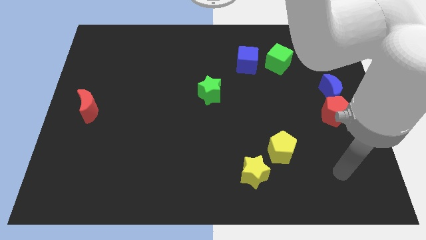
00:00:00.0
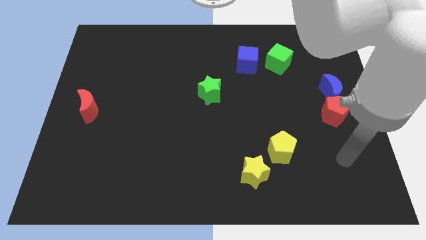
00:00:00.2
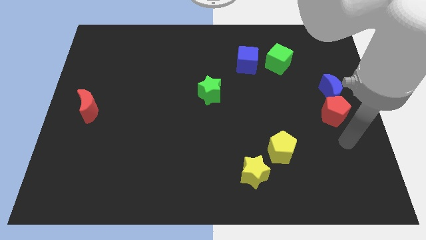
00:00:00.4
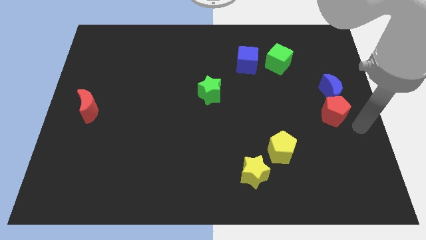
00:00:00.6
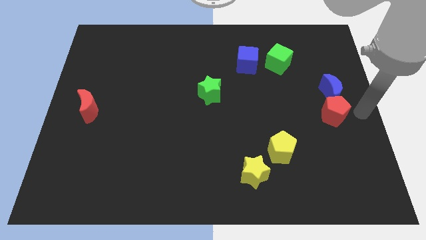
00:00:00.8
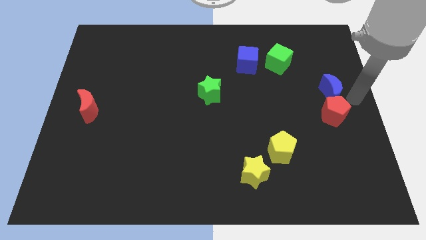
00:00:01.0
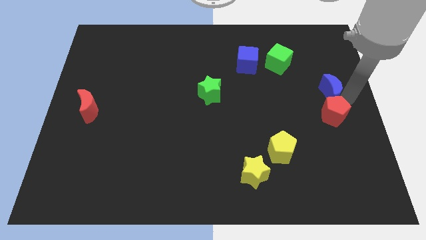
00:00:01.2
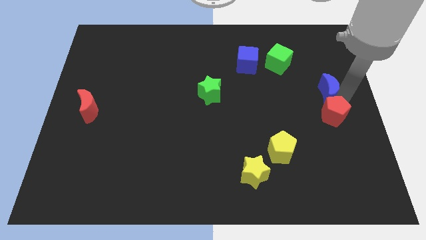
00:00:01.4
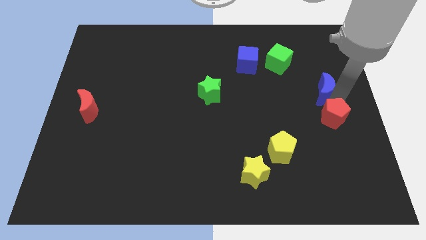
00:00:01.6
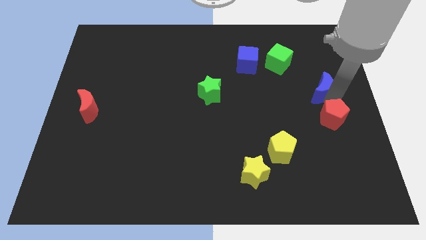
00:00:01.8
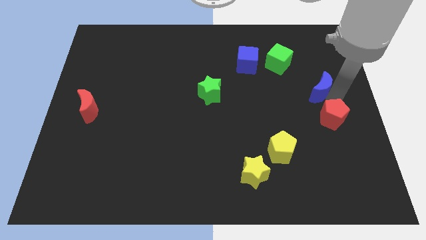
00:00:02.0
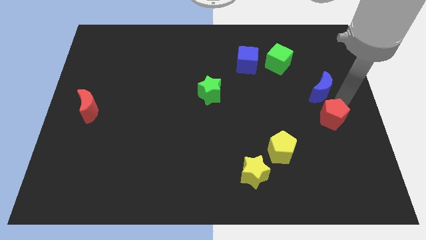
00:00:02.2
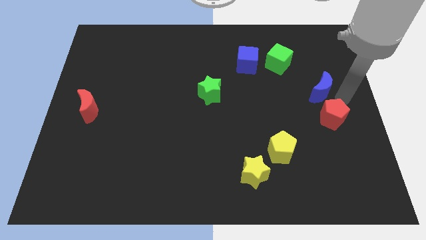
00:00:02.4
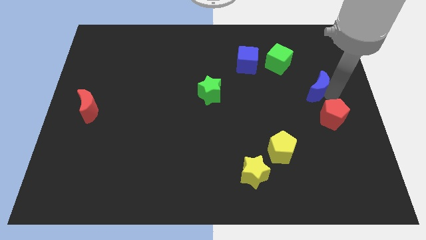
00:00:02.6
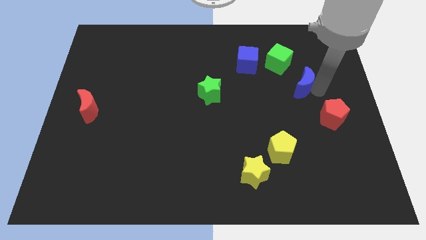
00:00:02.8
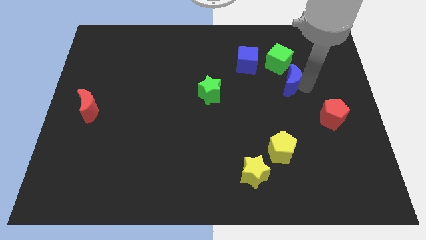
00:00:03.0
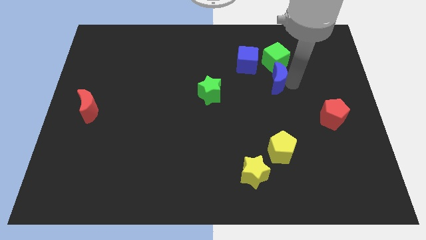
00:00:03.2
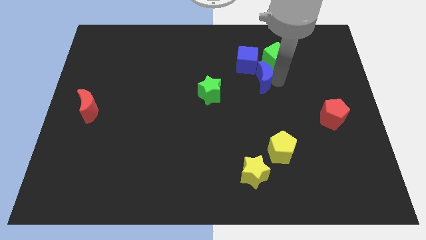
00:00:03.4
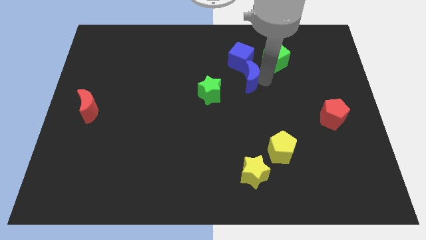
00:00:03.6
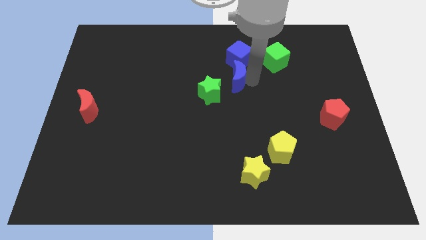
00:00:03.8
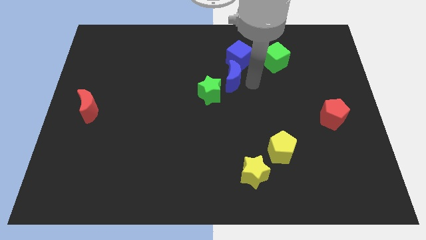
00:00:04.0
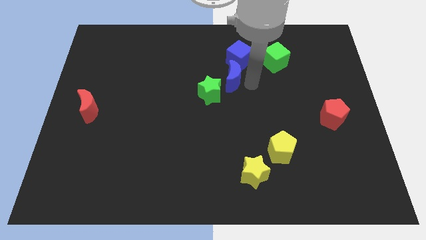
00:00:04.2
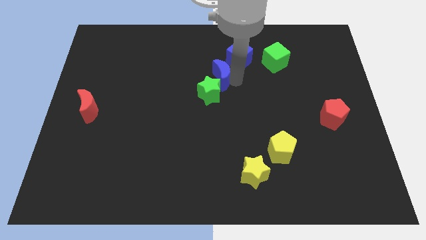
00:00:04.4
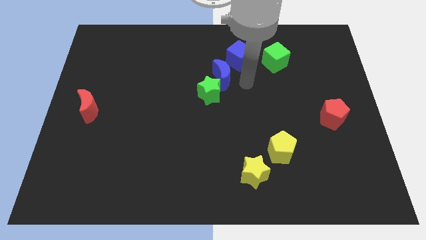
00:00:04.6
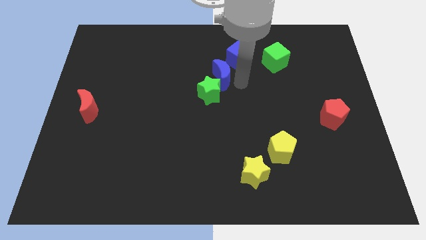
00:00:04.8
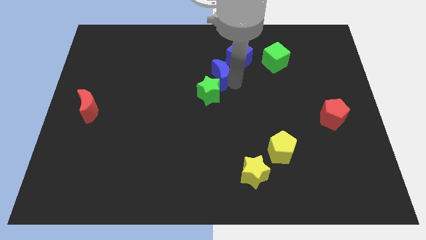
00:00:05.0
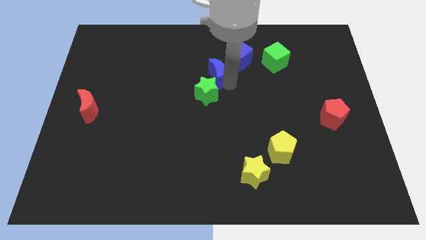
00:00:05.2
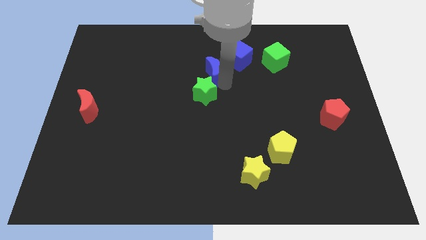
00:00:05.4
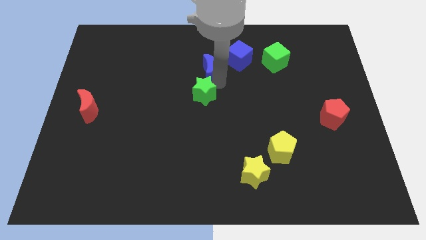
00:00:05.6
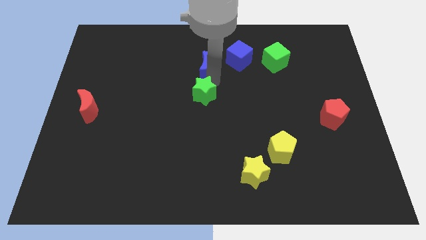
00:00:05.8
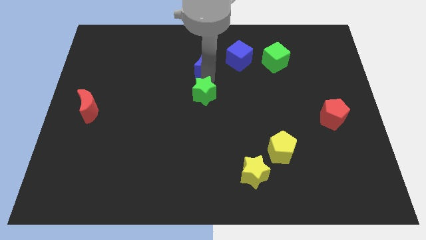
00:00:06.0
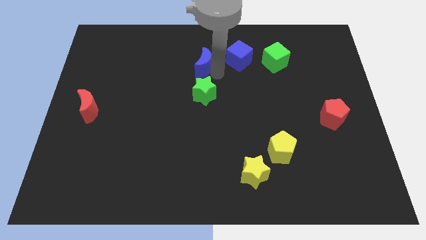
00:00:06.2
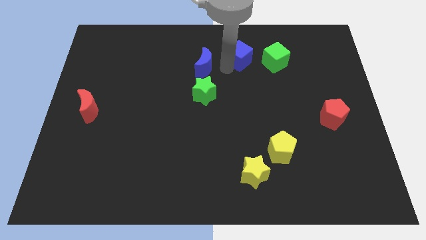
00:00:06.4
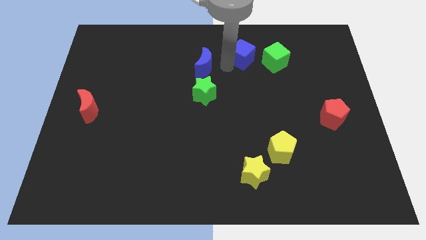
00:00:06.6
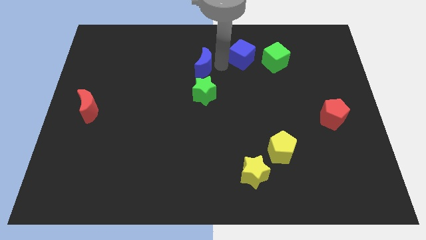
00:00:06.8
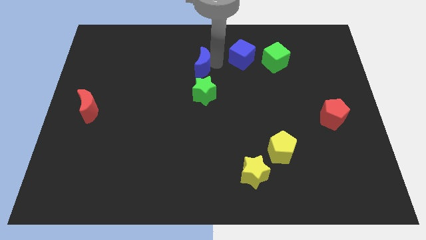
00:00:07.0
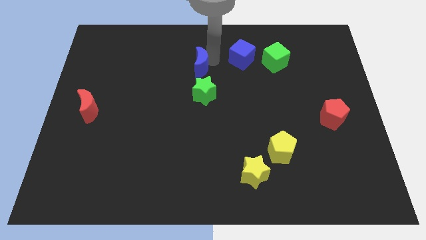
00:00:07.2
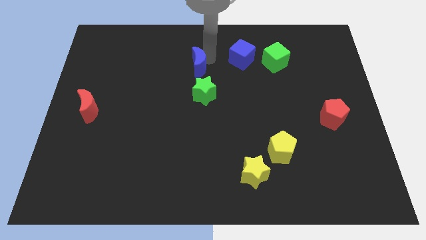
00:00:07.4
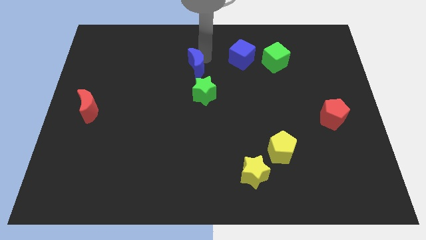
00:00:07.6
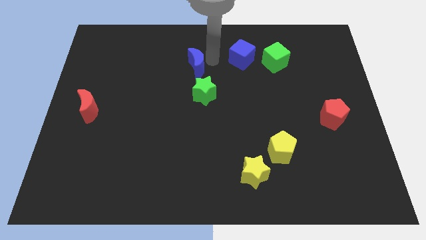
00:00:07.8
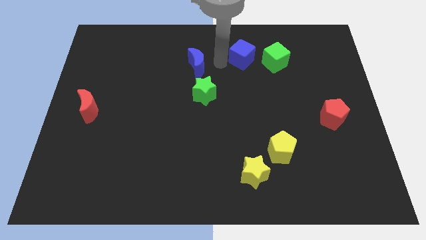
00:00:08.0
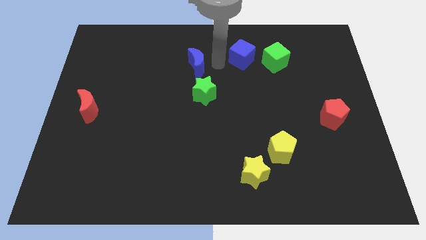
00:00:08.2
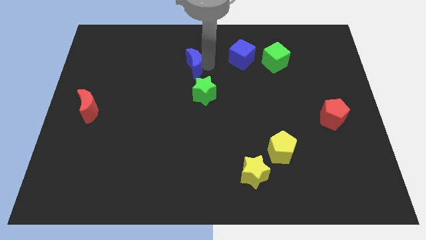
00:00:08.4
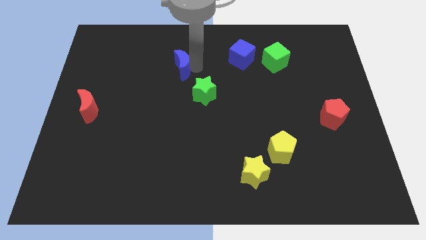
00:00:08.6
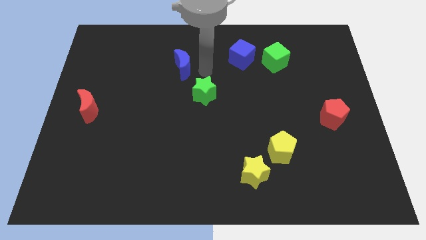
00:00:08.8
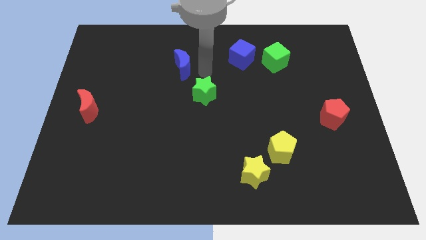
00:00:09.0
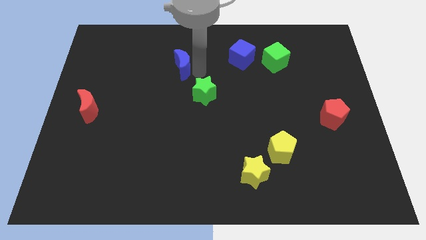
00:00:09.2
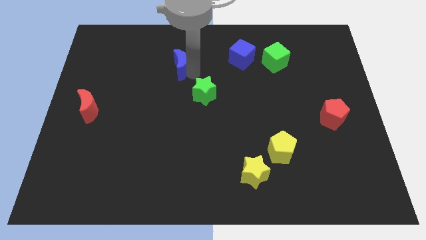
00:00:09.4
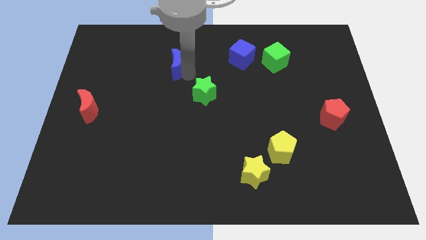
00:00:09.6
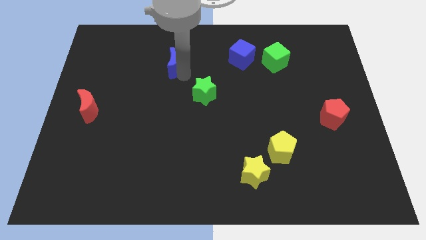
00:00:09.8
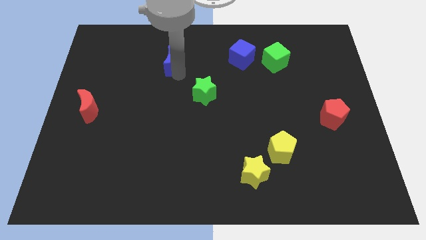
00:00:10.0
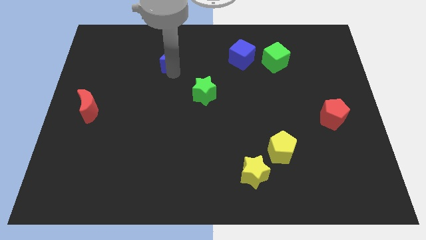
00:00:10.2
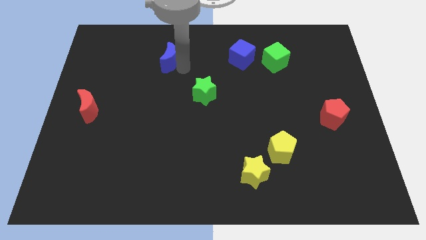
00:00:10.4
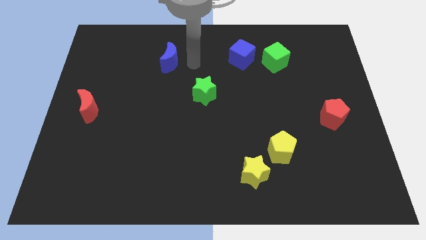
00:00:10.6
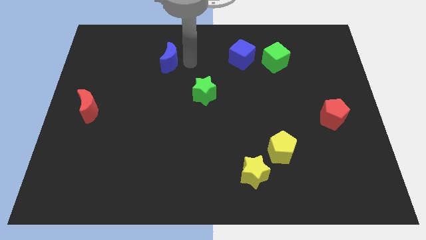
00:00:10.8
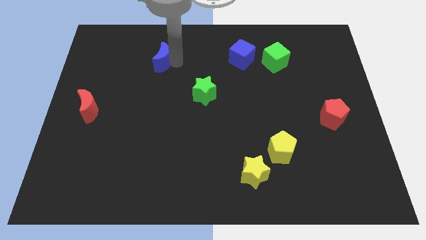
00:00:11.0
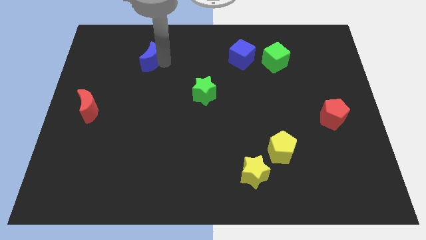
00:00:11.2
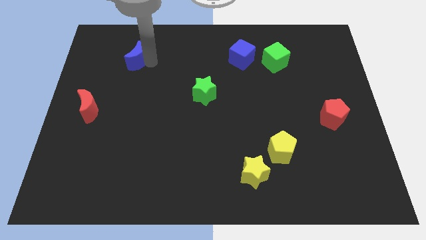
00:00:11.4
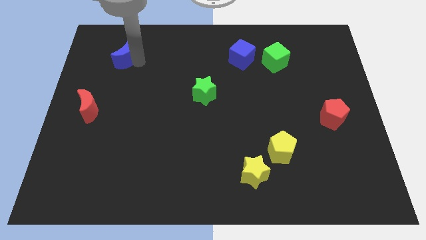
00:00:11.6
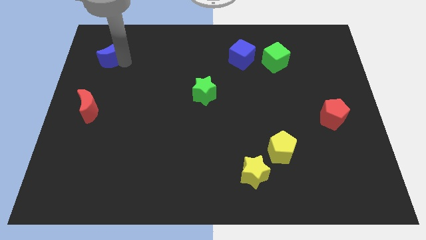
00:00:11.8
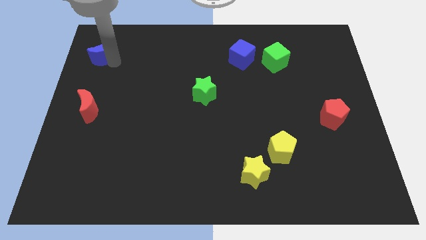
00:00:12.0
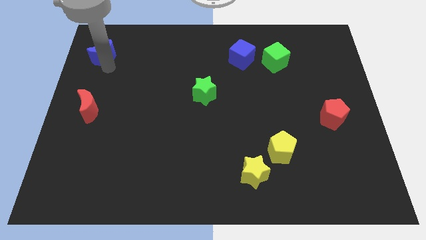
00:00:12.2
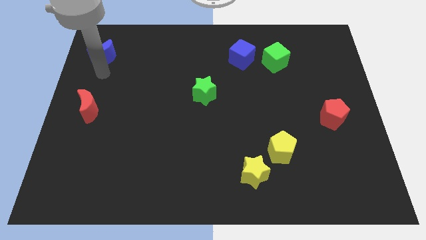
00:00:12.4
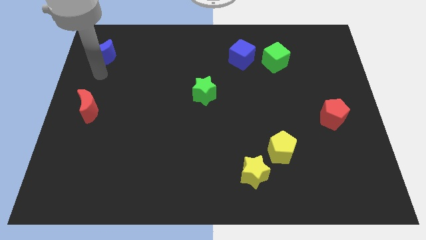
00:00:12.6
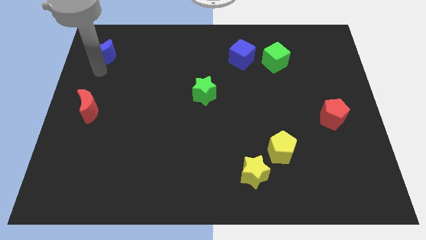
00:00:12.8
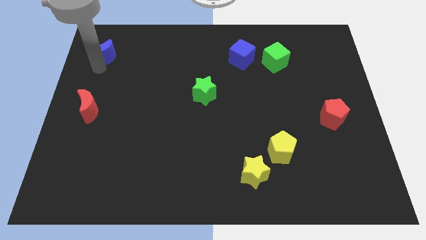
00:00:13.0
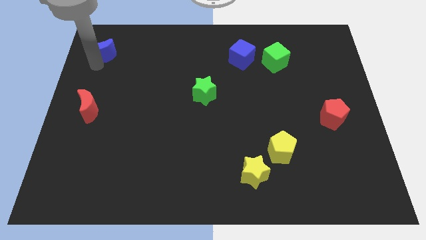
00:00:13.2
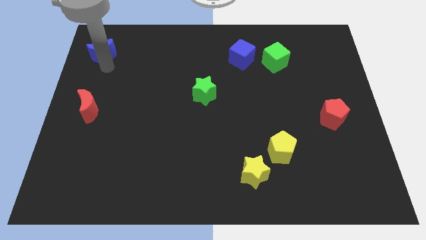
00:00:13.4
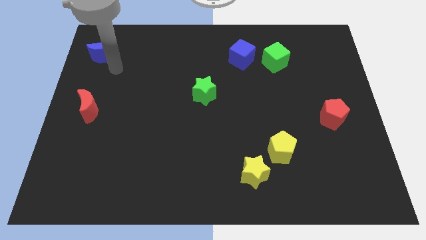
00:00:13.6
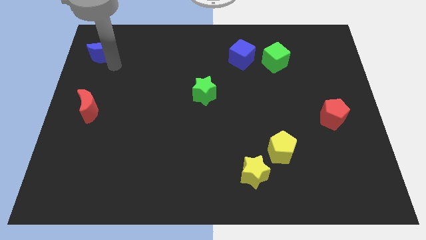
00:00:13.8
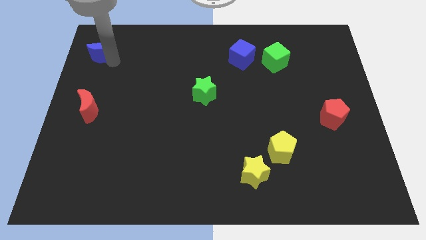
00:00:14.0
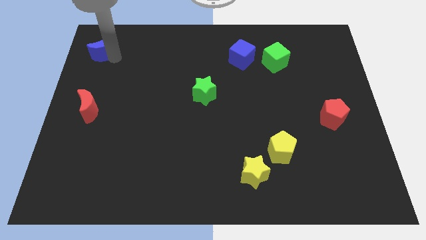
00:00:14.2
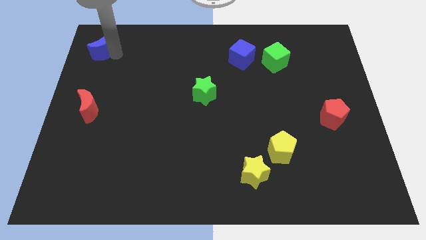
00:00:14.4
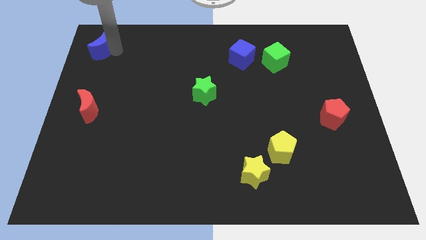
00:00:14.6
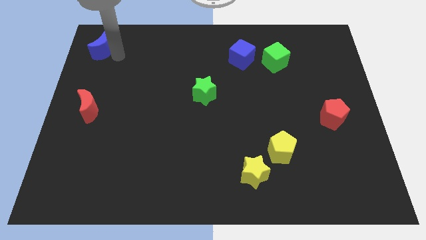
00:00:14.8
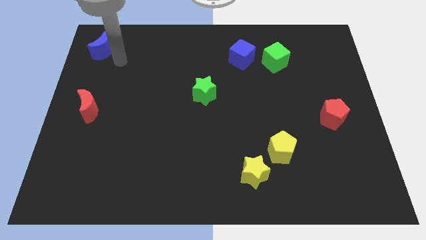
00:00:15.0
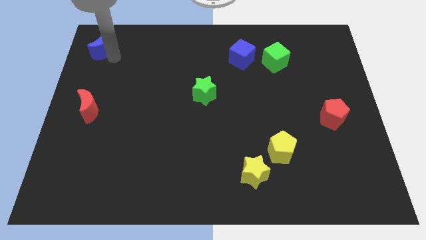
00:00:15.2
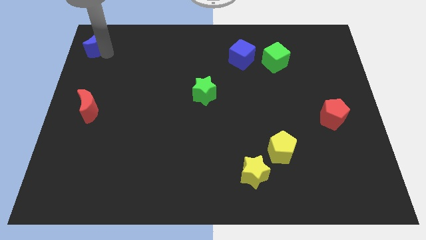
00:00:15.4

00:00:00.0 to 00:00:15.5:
slide the blue moon to the upper left corner
